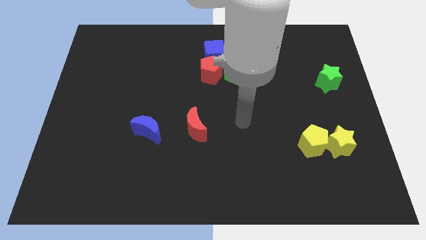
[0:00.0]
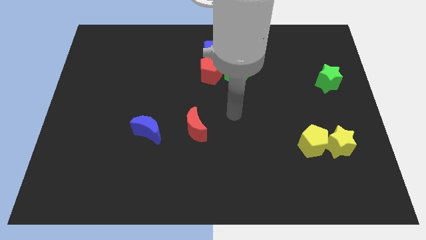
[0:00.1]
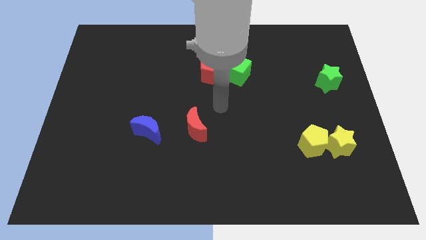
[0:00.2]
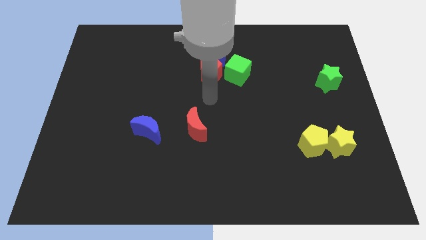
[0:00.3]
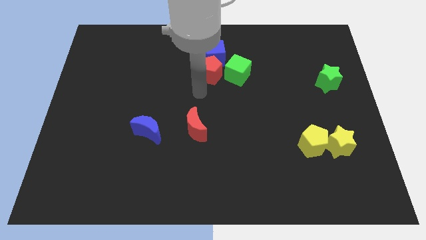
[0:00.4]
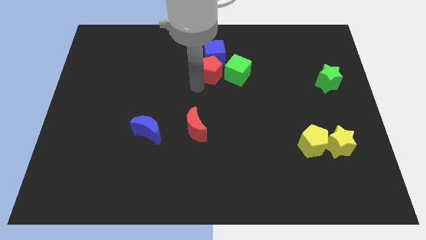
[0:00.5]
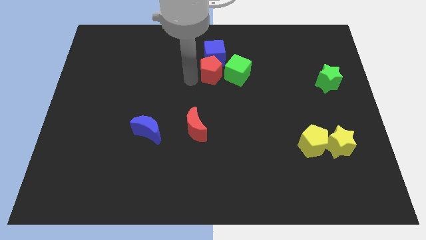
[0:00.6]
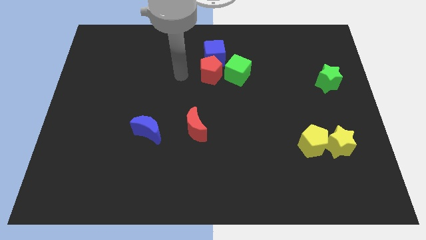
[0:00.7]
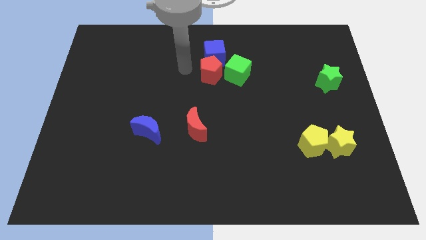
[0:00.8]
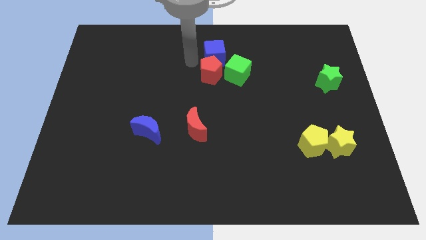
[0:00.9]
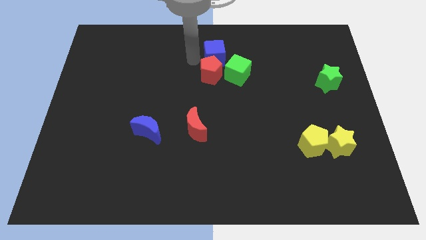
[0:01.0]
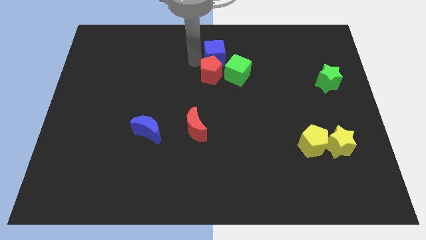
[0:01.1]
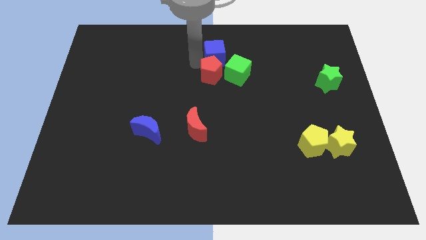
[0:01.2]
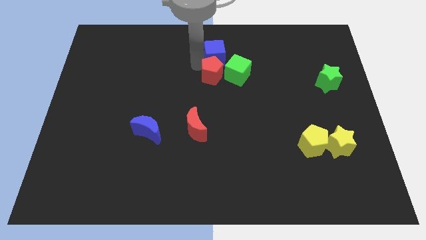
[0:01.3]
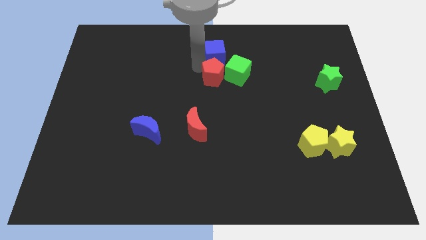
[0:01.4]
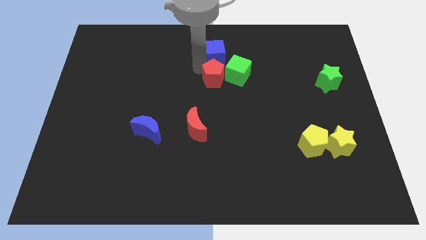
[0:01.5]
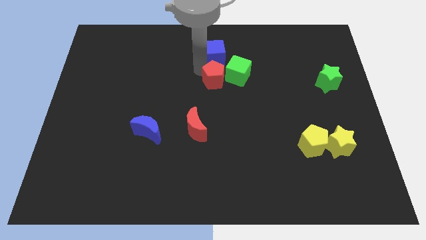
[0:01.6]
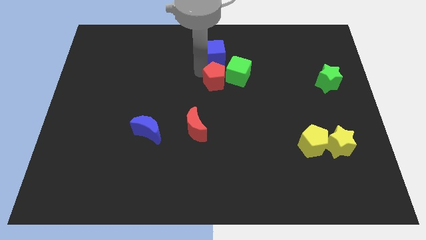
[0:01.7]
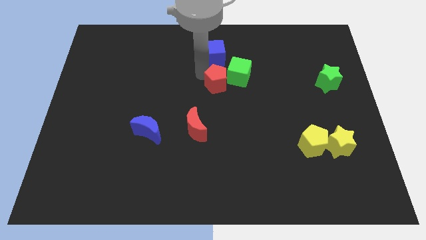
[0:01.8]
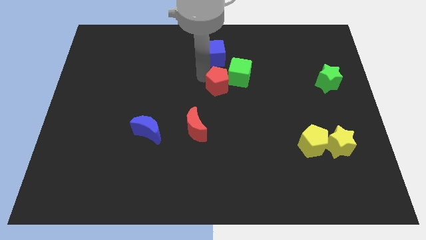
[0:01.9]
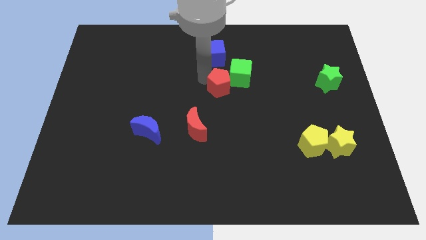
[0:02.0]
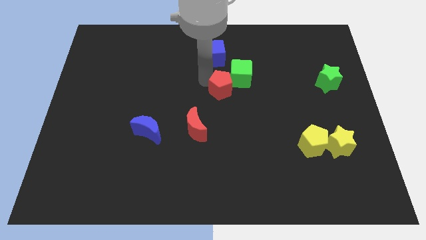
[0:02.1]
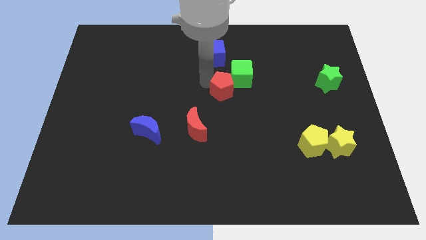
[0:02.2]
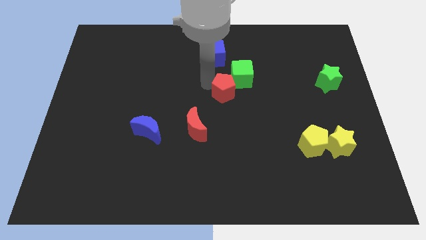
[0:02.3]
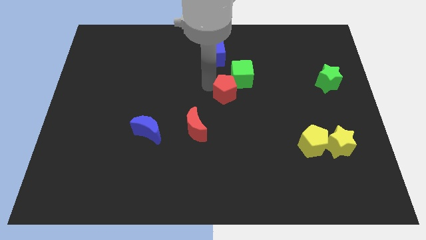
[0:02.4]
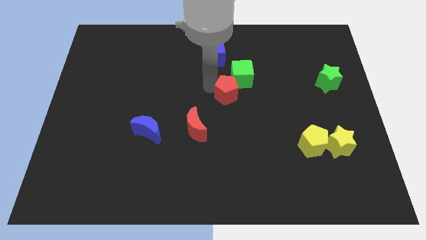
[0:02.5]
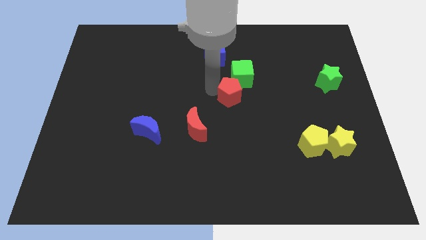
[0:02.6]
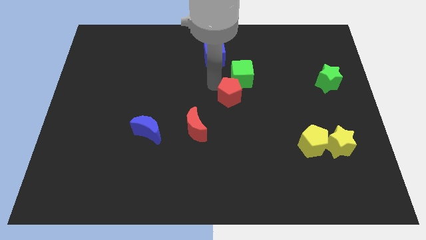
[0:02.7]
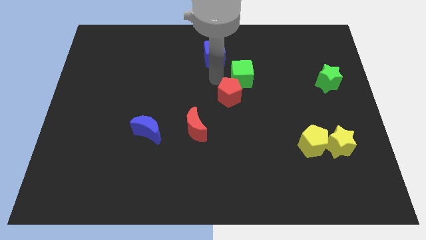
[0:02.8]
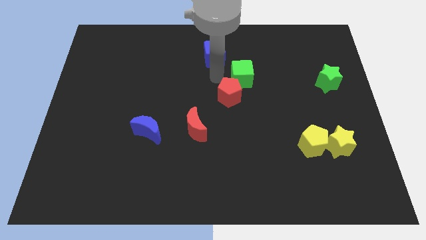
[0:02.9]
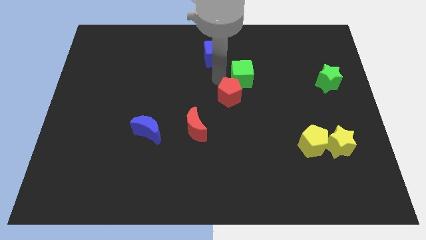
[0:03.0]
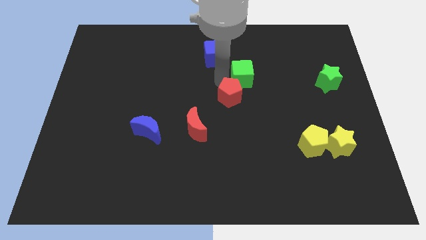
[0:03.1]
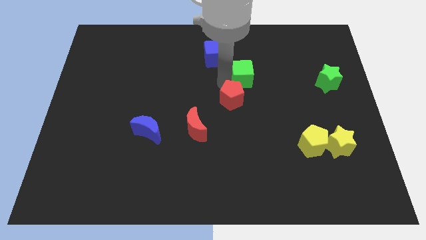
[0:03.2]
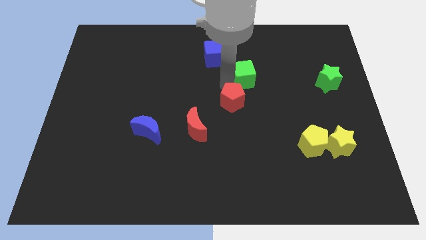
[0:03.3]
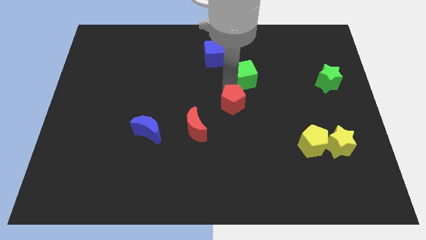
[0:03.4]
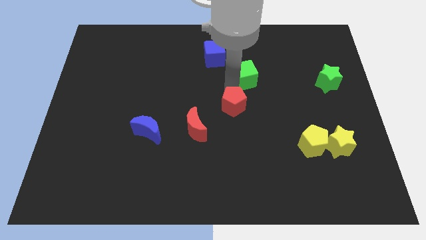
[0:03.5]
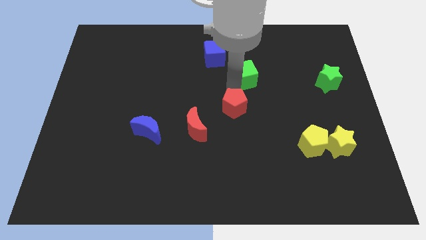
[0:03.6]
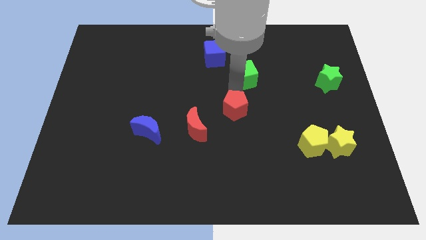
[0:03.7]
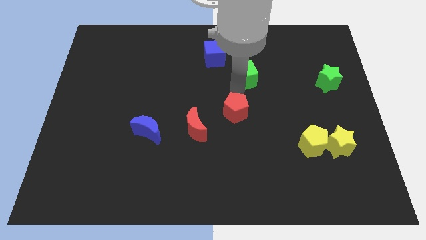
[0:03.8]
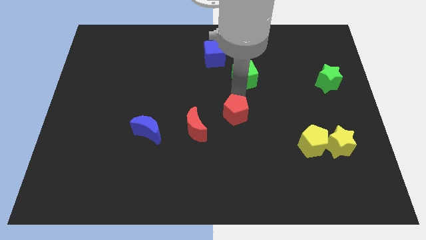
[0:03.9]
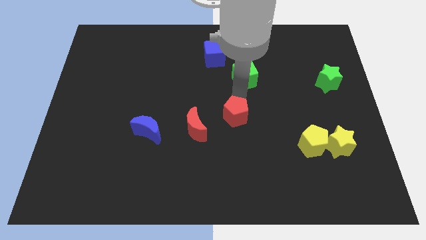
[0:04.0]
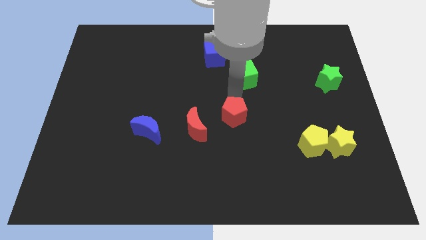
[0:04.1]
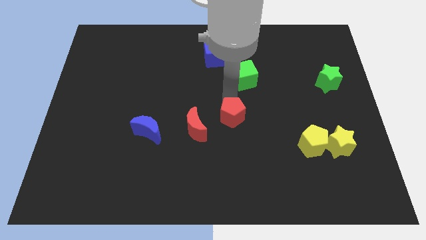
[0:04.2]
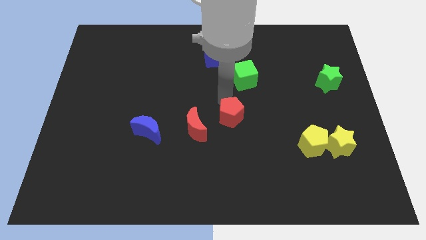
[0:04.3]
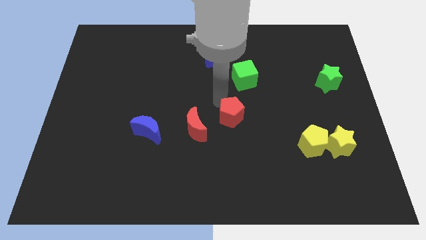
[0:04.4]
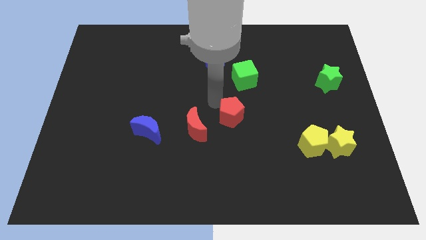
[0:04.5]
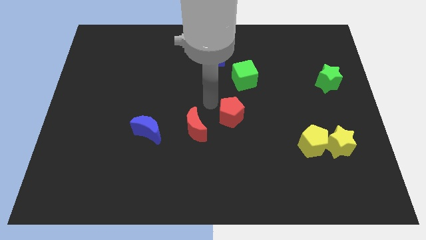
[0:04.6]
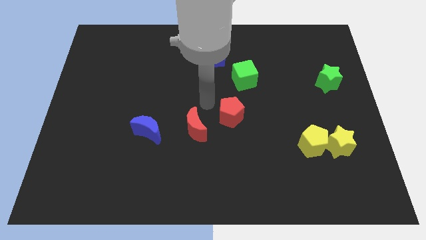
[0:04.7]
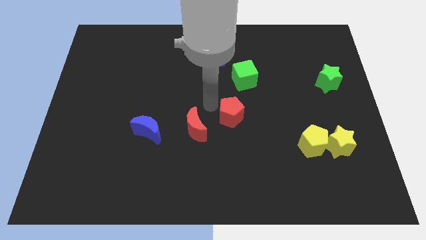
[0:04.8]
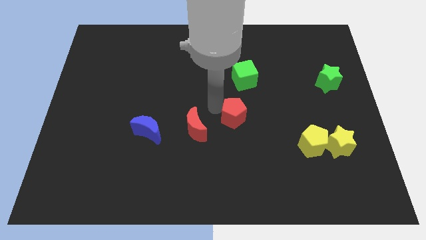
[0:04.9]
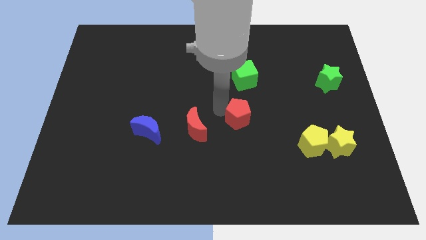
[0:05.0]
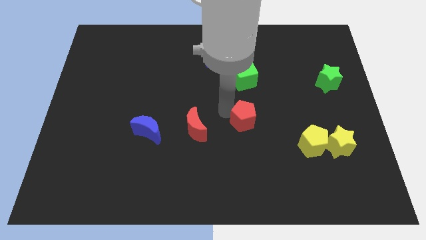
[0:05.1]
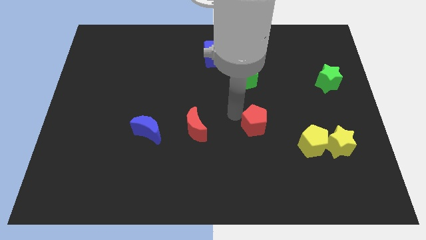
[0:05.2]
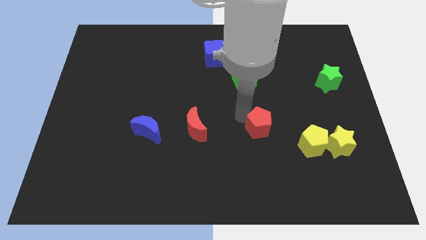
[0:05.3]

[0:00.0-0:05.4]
move the red pentagon to the left side of the yellow pentagon

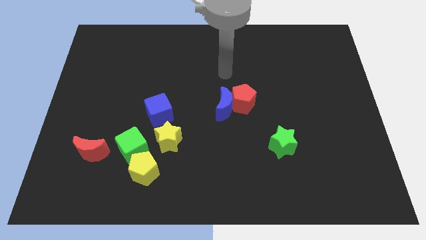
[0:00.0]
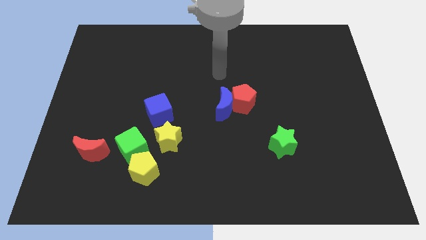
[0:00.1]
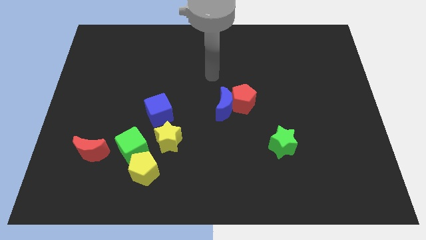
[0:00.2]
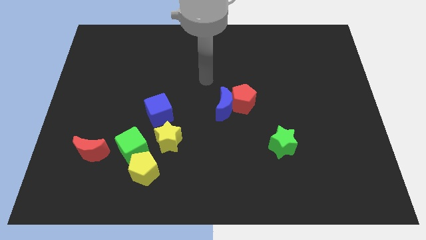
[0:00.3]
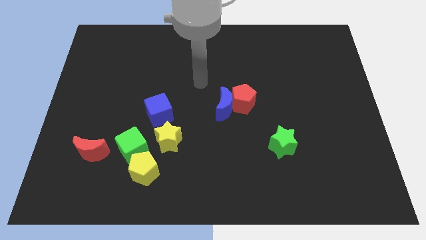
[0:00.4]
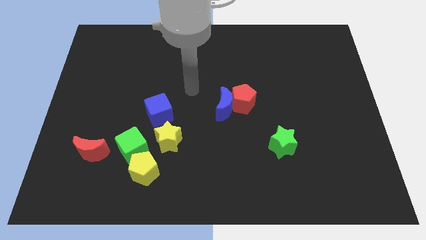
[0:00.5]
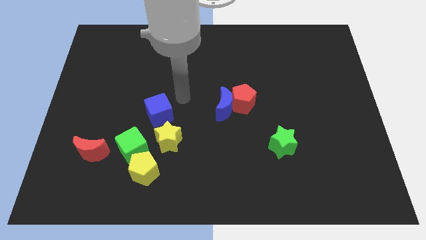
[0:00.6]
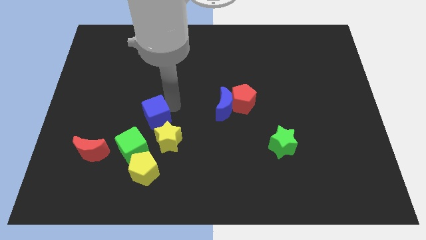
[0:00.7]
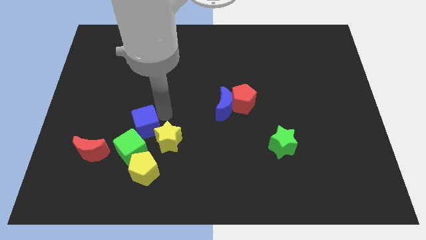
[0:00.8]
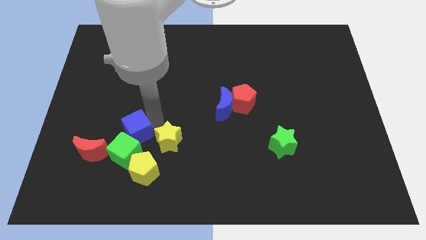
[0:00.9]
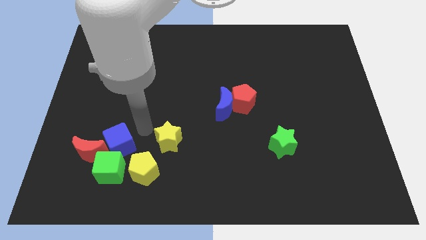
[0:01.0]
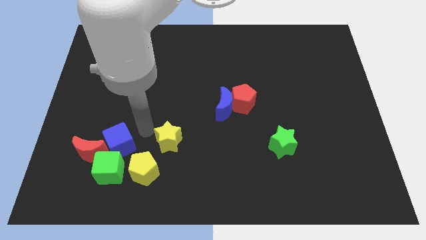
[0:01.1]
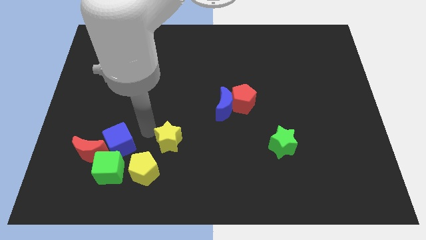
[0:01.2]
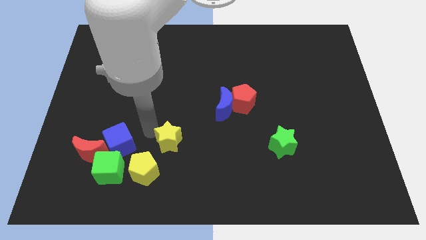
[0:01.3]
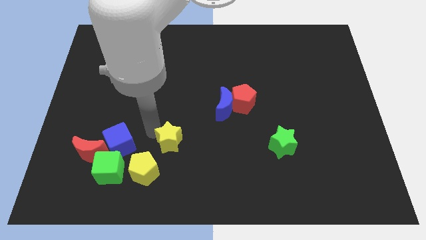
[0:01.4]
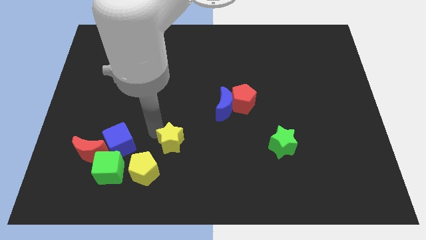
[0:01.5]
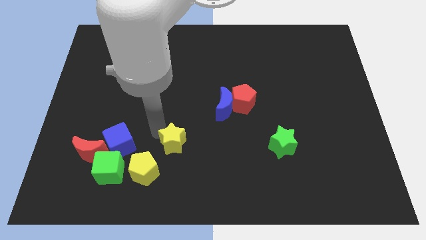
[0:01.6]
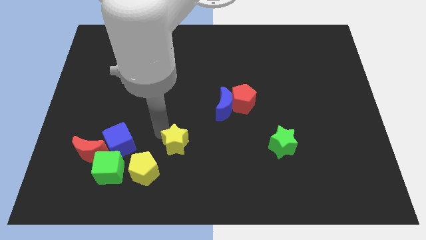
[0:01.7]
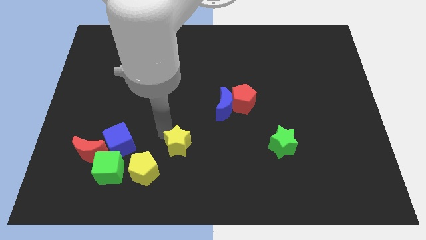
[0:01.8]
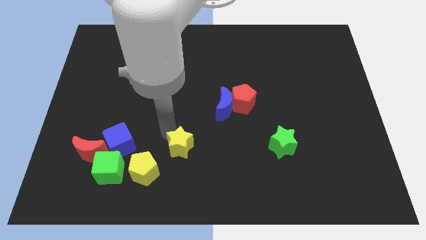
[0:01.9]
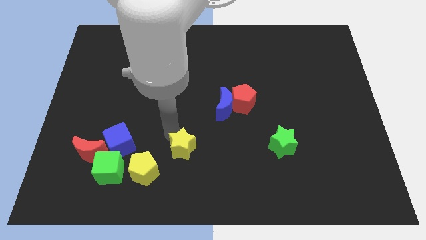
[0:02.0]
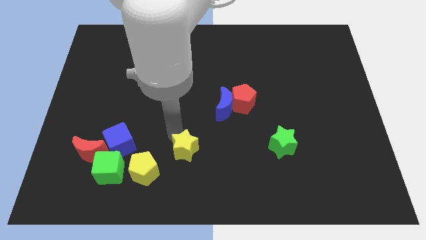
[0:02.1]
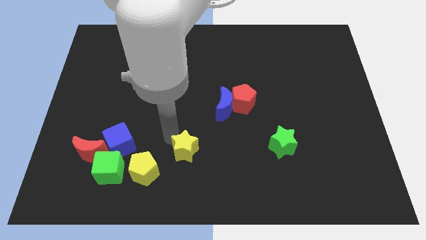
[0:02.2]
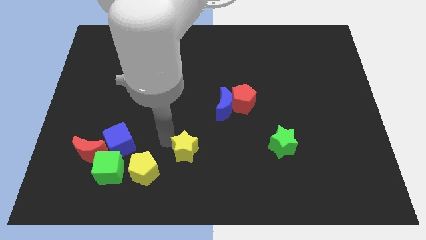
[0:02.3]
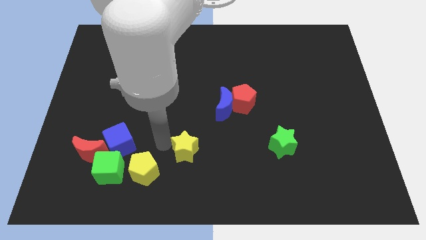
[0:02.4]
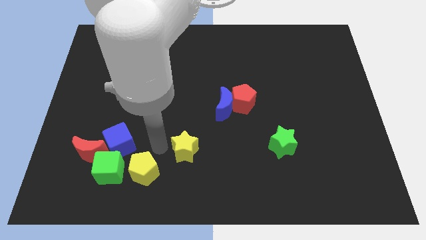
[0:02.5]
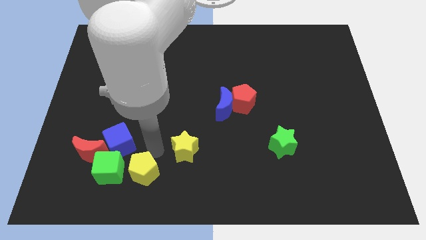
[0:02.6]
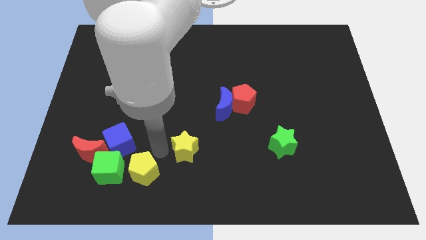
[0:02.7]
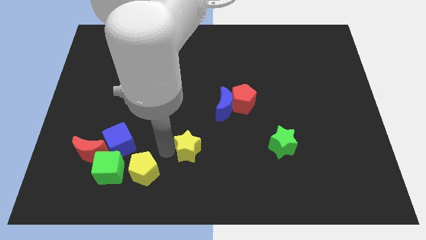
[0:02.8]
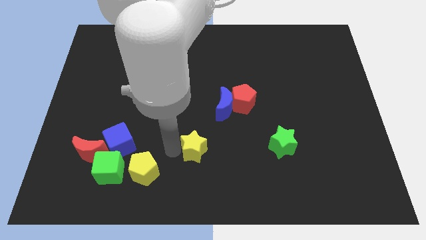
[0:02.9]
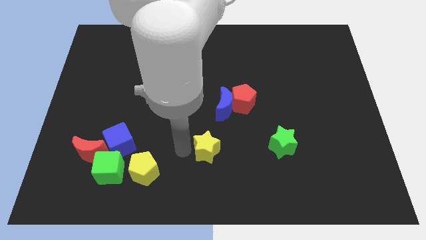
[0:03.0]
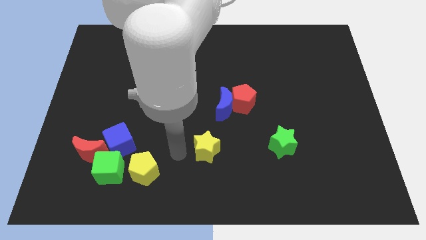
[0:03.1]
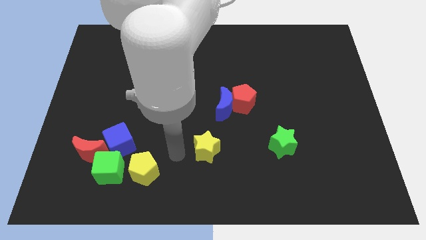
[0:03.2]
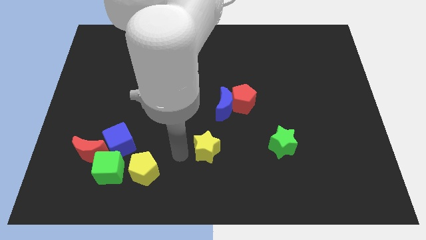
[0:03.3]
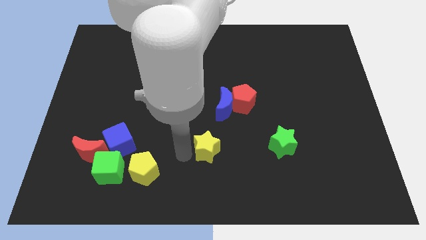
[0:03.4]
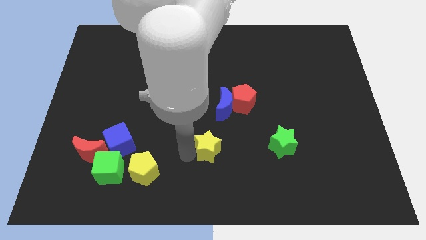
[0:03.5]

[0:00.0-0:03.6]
move the yellow star just left of the green star
